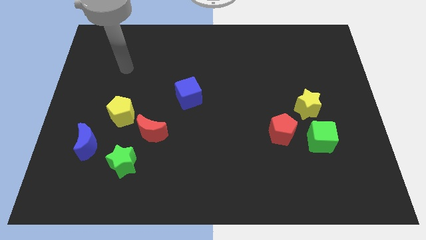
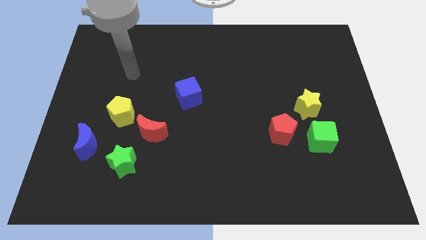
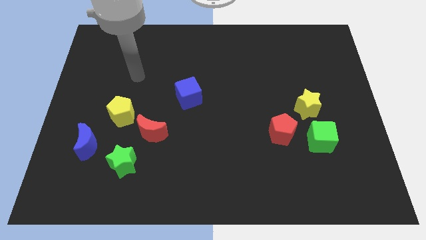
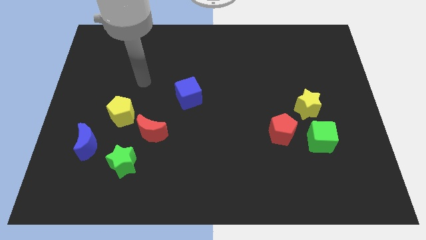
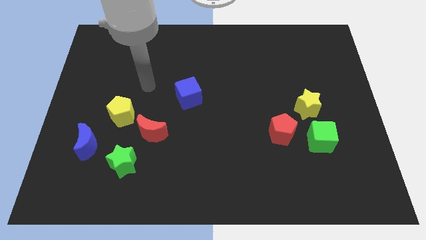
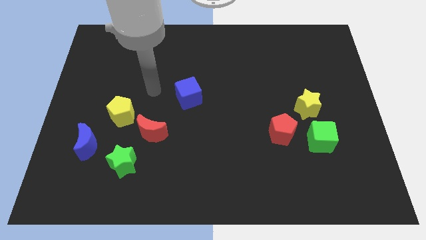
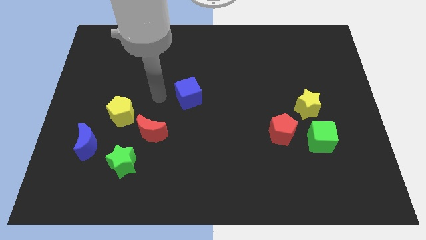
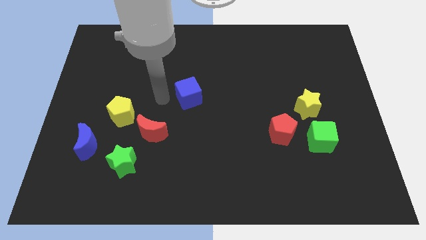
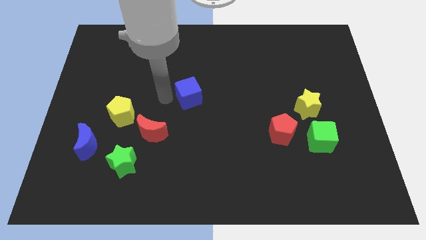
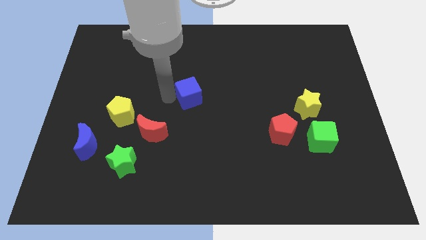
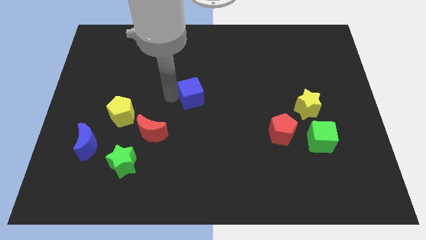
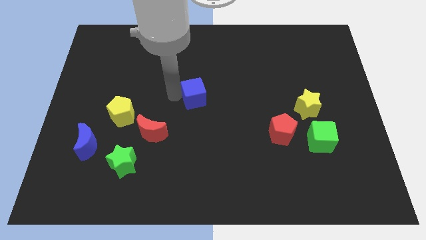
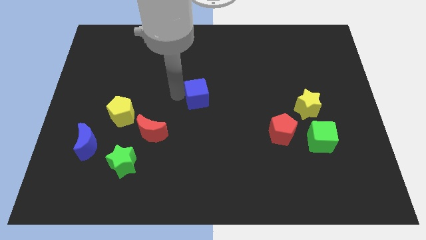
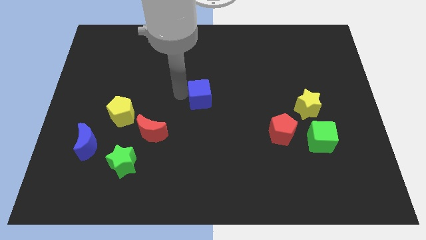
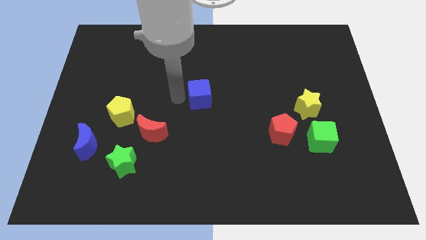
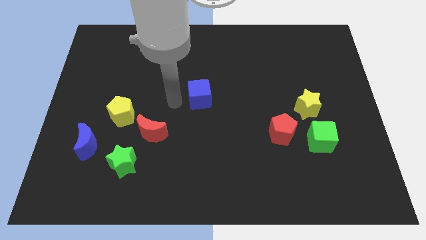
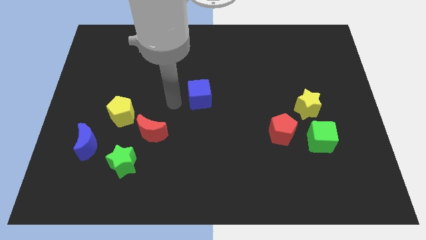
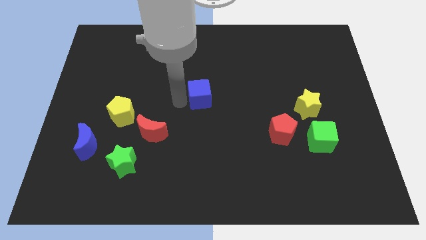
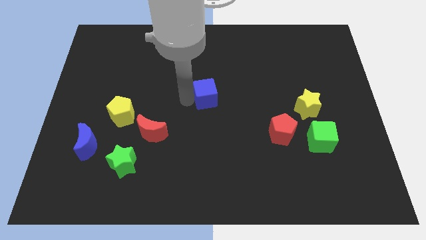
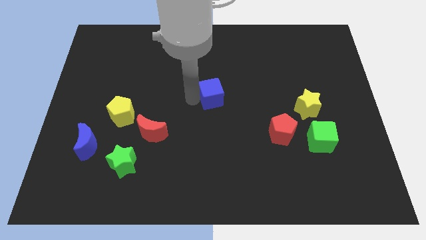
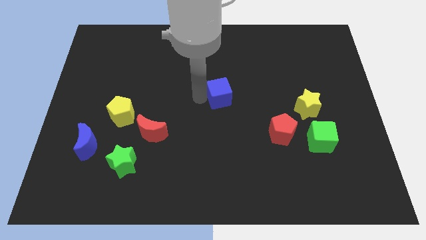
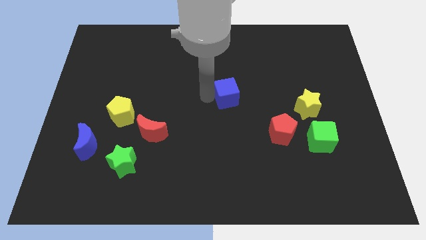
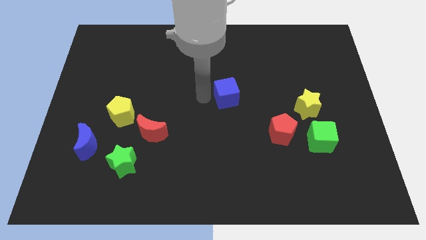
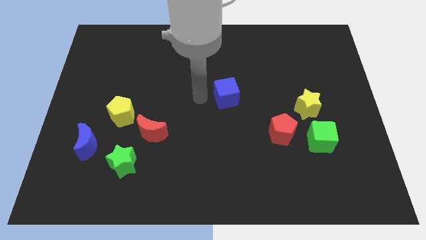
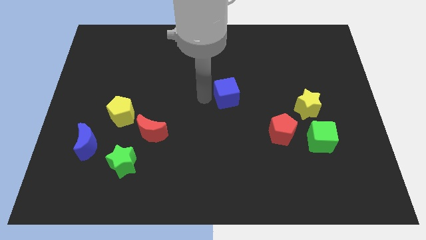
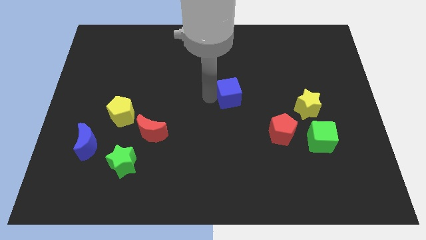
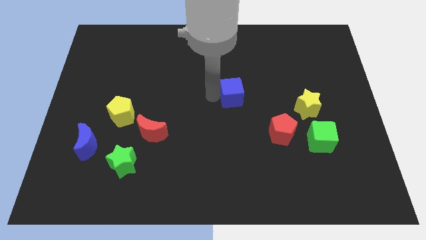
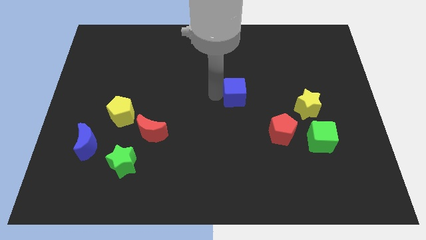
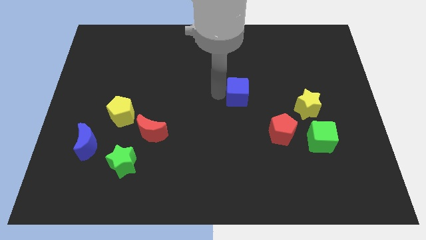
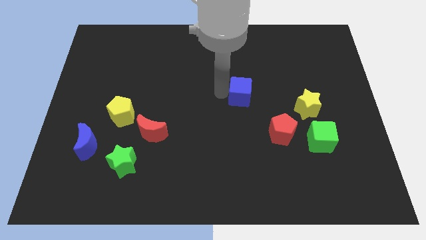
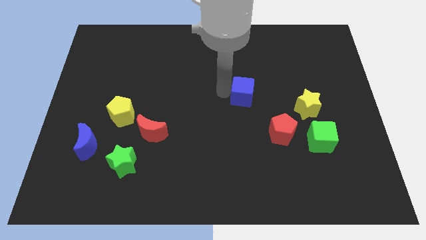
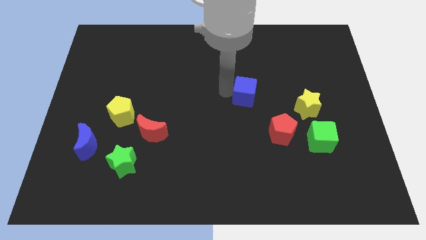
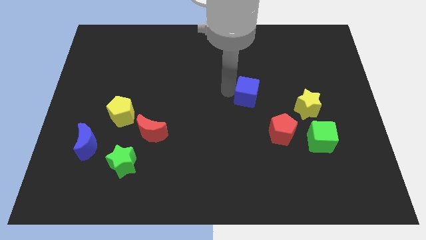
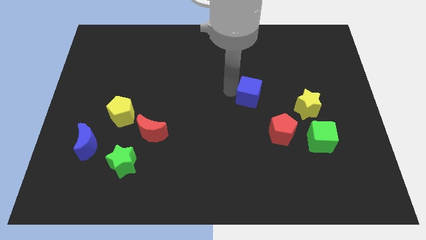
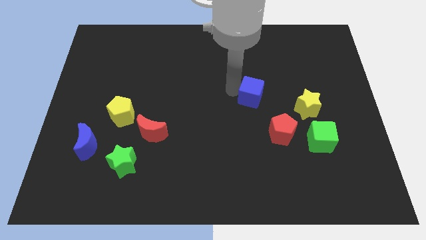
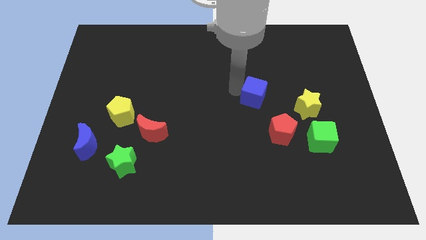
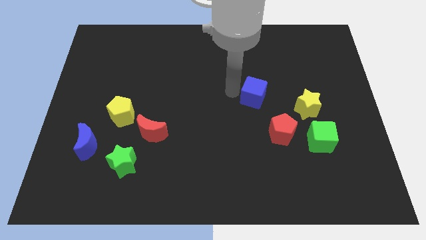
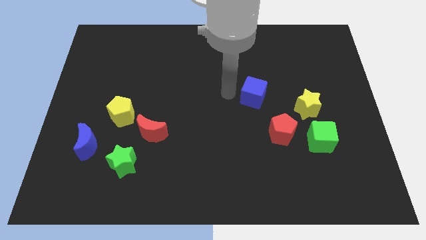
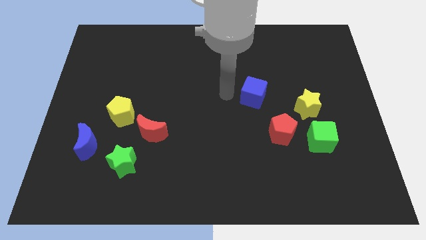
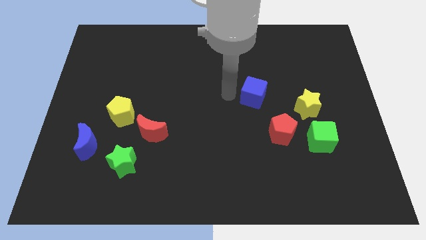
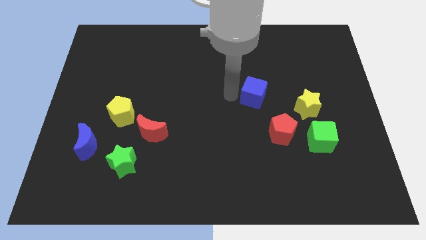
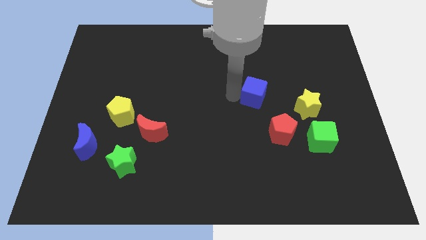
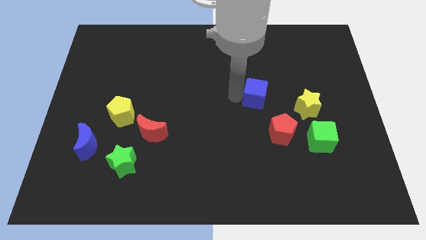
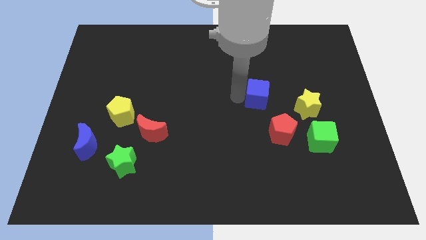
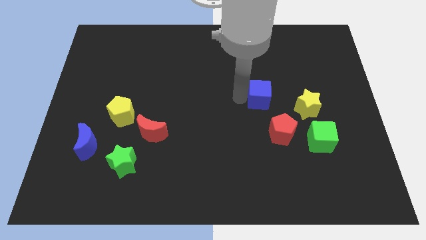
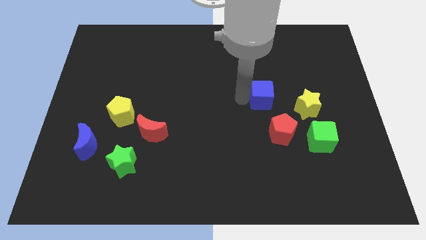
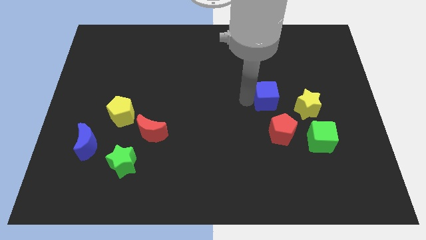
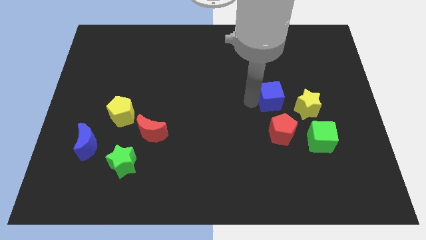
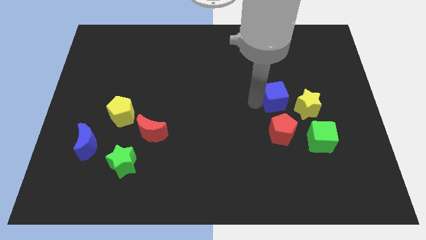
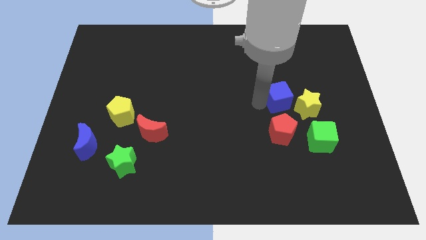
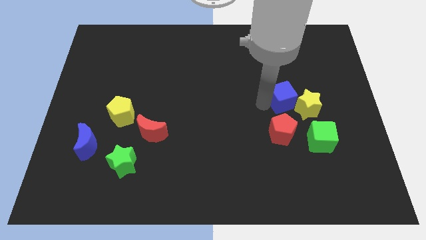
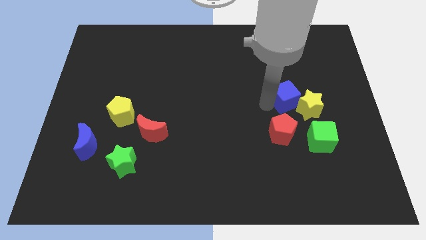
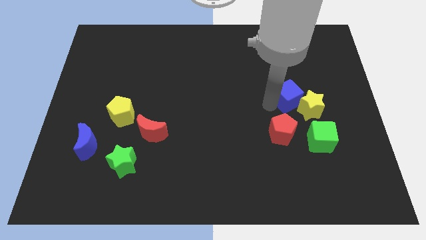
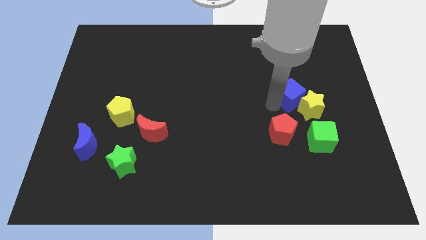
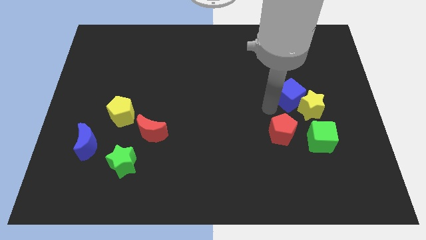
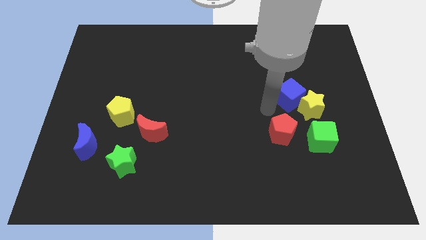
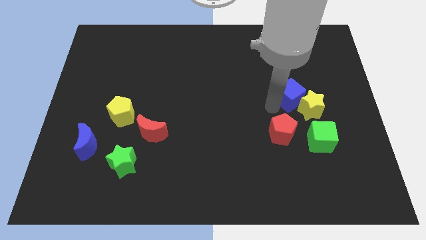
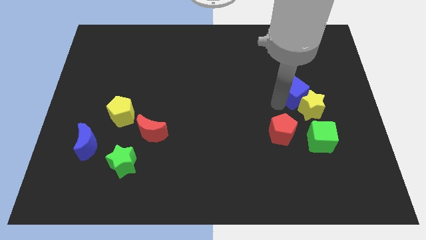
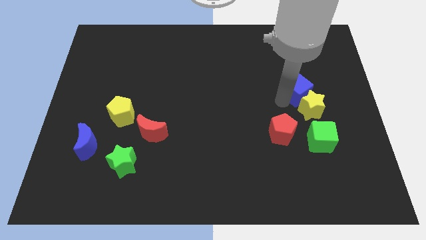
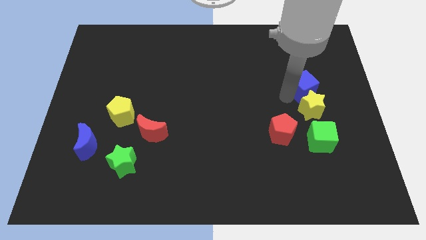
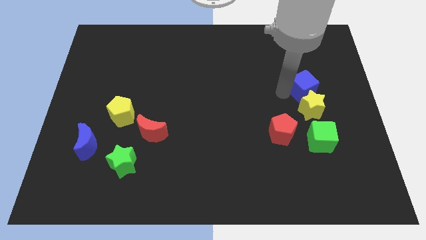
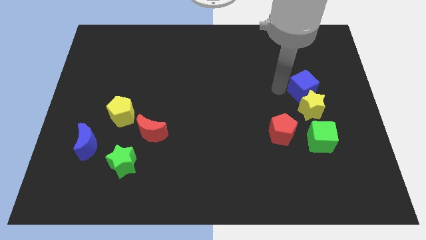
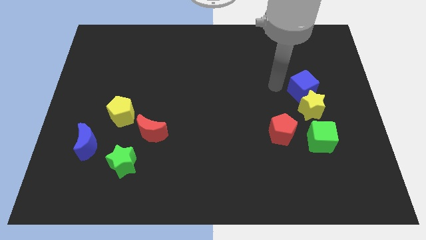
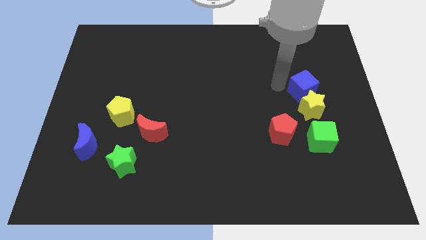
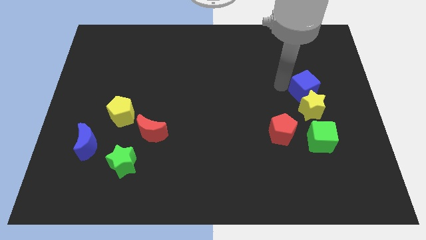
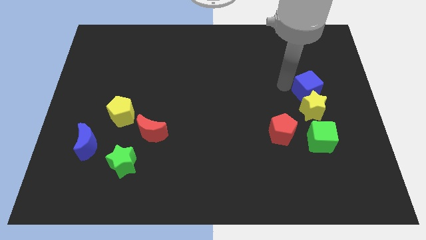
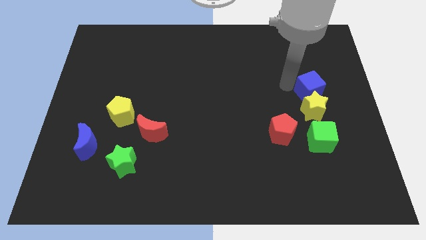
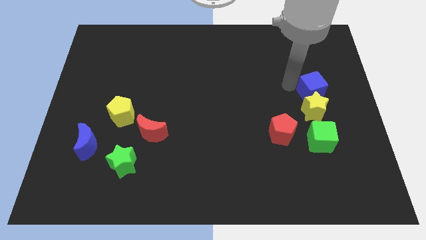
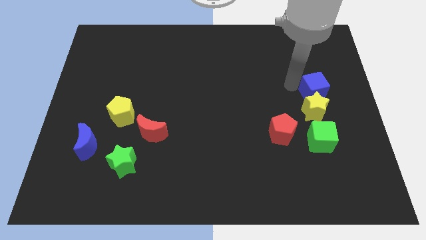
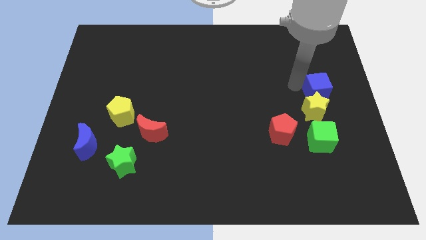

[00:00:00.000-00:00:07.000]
slide the blue cube to the right side
